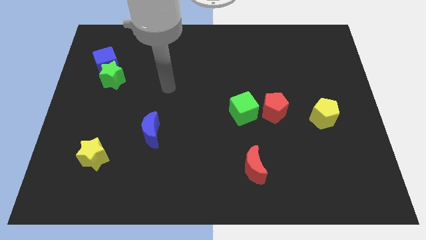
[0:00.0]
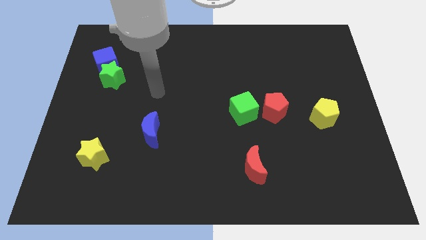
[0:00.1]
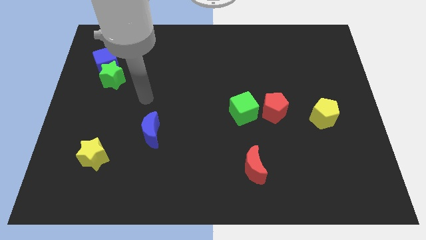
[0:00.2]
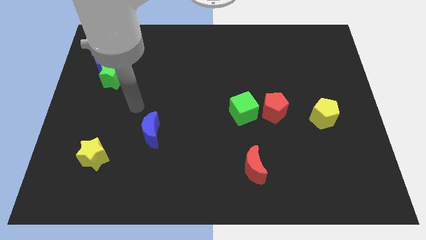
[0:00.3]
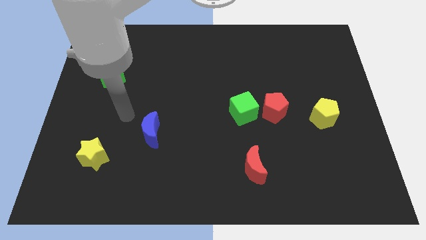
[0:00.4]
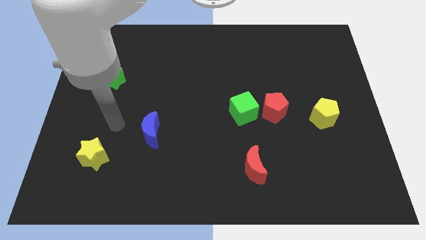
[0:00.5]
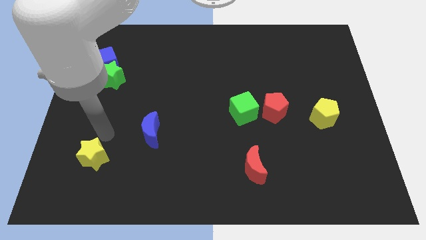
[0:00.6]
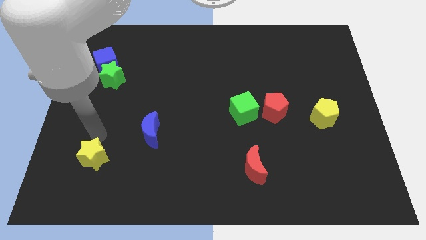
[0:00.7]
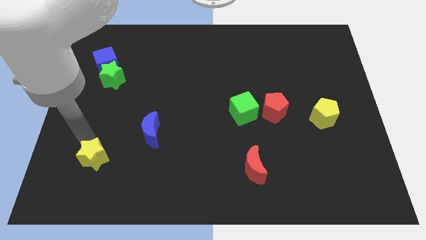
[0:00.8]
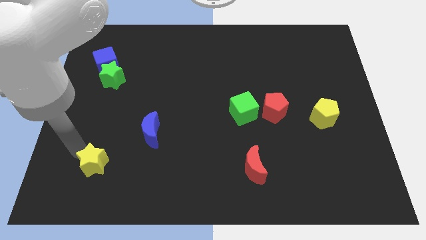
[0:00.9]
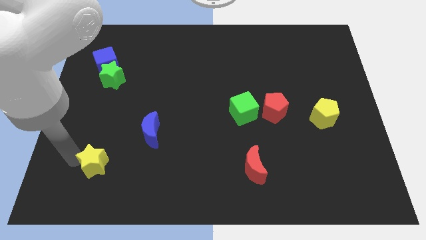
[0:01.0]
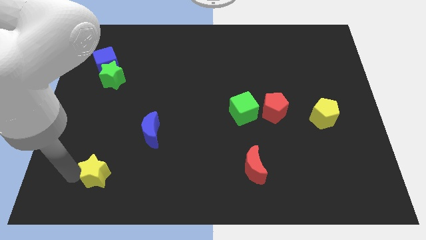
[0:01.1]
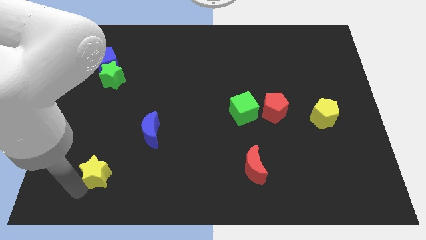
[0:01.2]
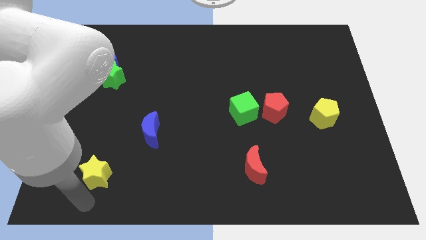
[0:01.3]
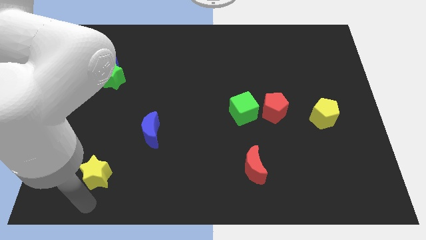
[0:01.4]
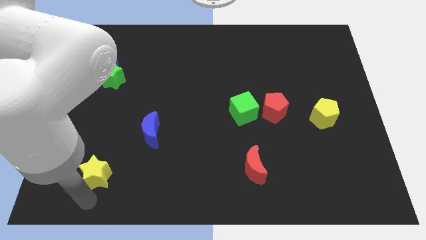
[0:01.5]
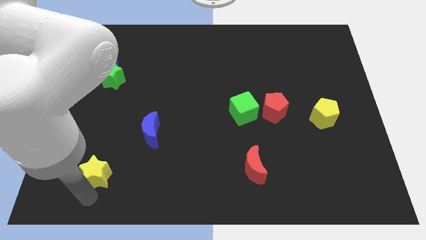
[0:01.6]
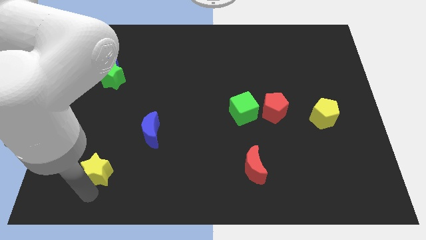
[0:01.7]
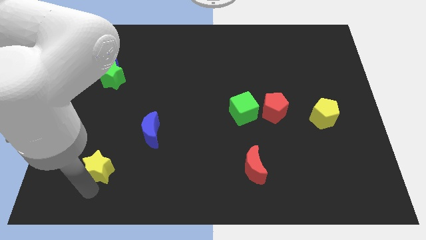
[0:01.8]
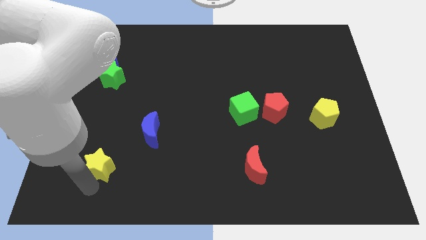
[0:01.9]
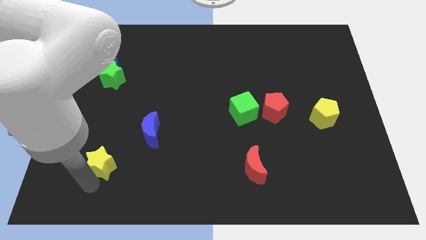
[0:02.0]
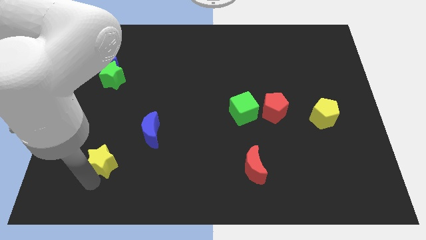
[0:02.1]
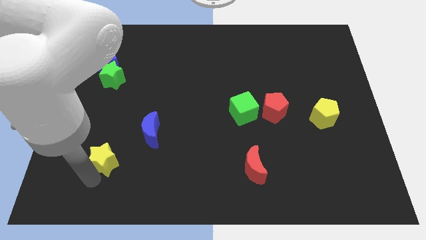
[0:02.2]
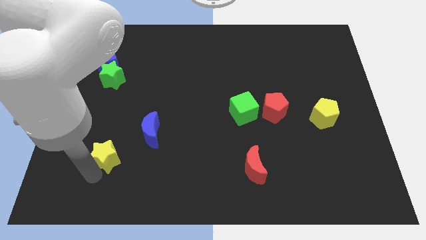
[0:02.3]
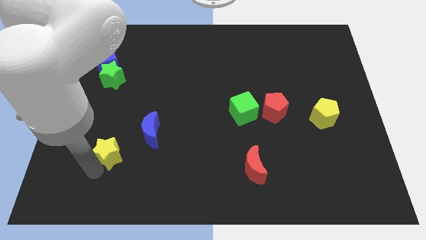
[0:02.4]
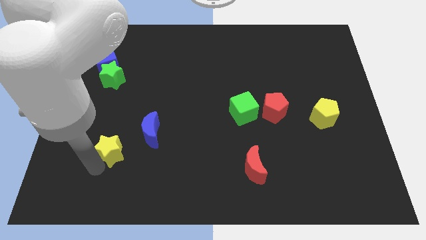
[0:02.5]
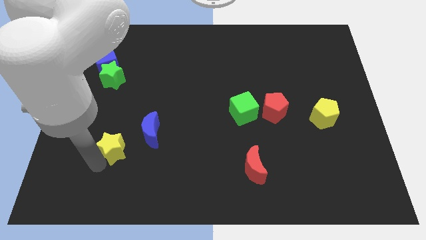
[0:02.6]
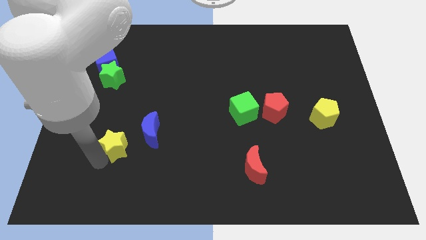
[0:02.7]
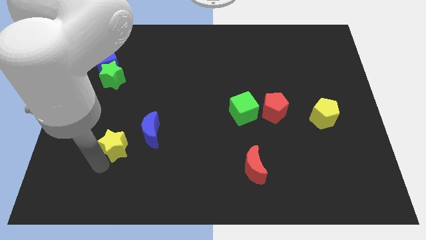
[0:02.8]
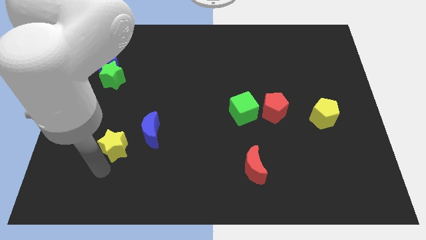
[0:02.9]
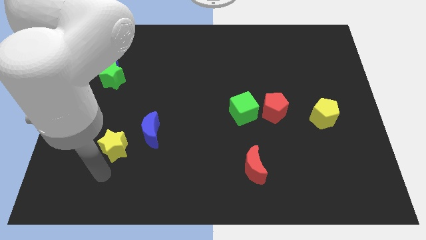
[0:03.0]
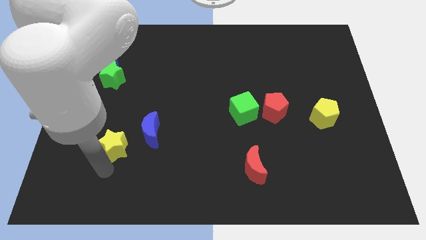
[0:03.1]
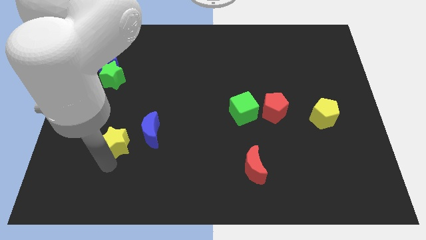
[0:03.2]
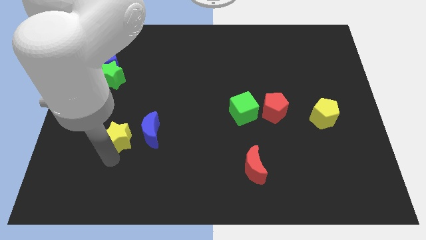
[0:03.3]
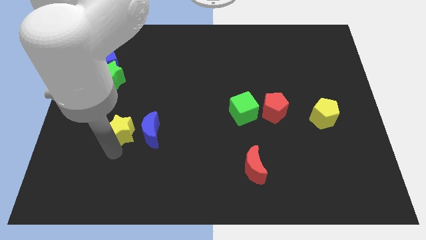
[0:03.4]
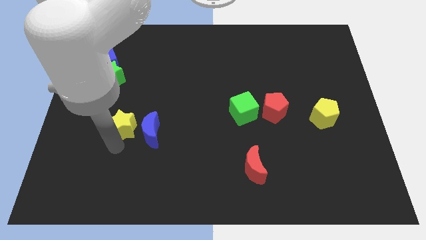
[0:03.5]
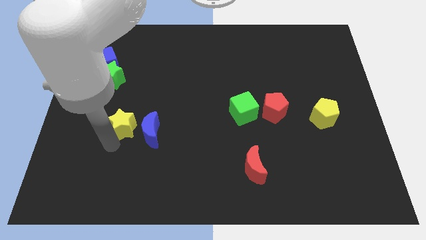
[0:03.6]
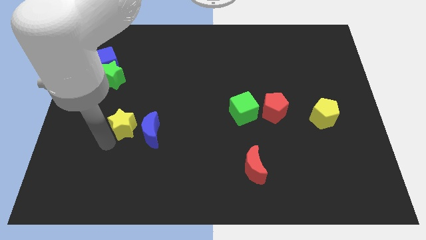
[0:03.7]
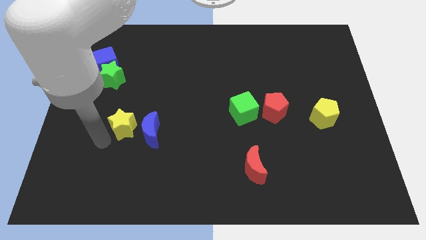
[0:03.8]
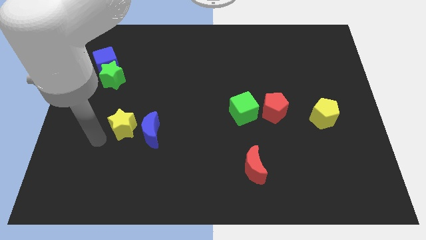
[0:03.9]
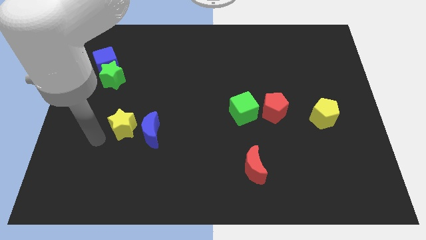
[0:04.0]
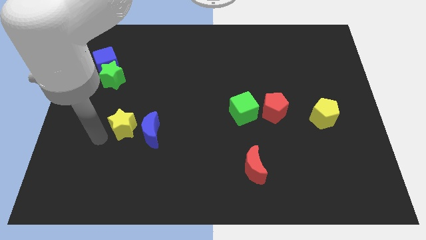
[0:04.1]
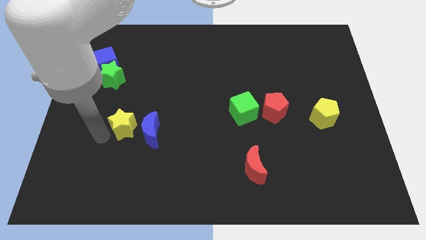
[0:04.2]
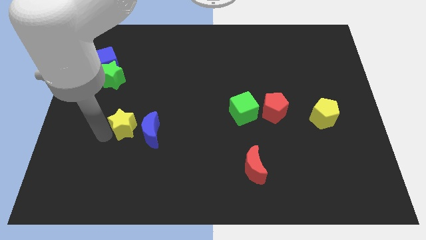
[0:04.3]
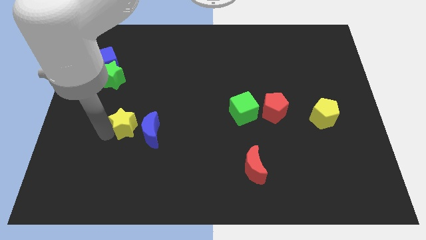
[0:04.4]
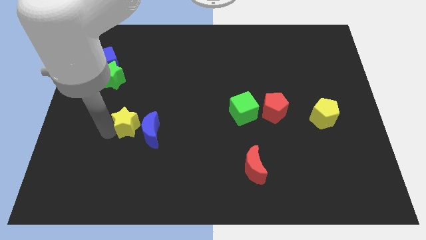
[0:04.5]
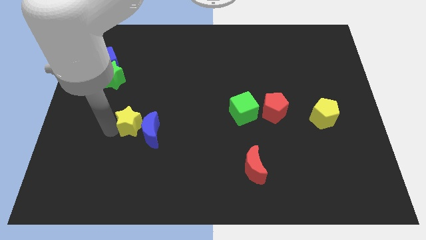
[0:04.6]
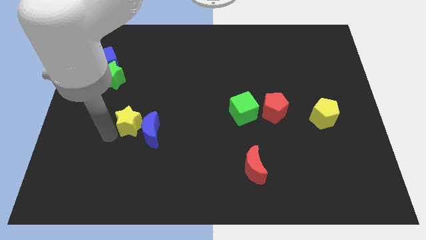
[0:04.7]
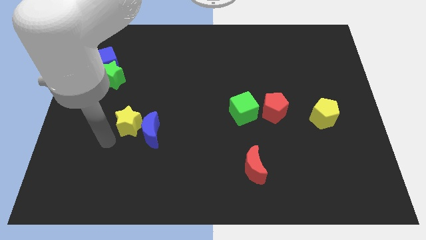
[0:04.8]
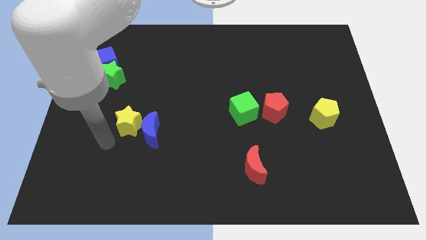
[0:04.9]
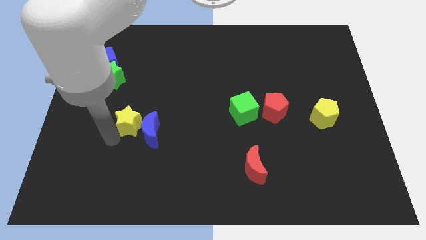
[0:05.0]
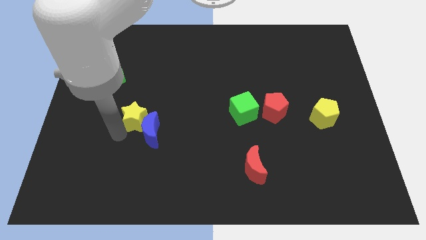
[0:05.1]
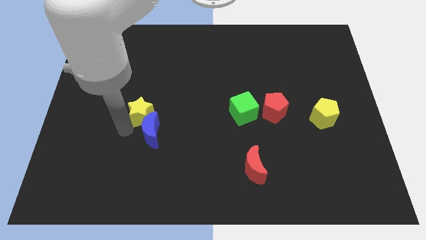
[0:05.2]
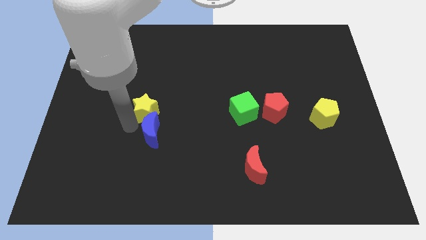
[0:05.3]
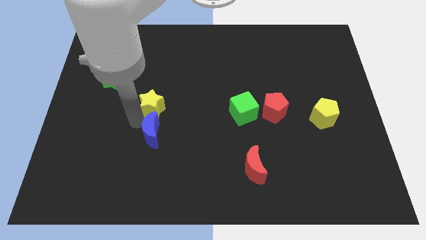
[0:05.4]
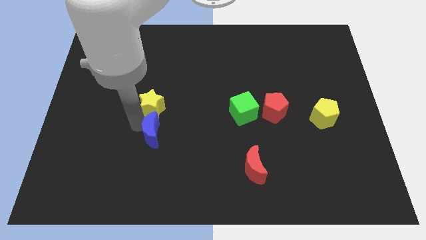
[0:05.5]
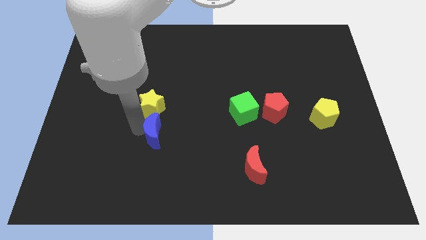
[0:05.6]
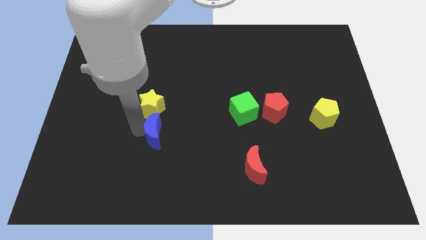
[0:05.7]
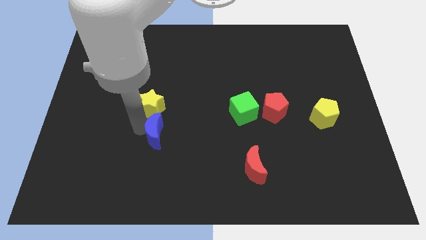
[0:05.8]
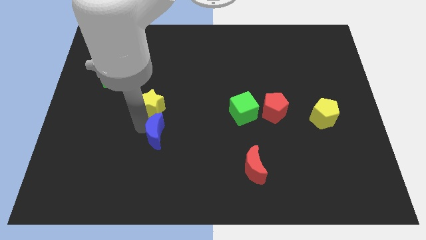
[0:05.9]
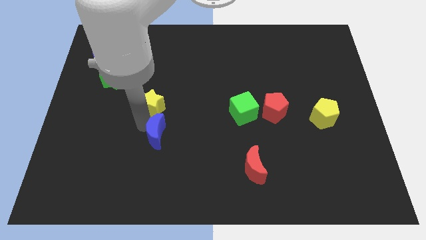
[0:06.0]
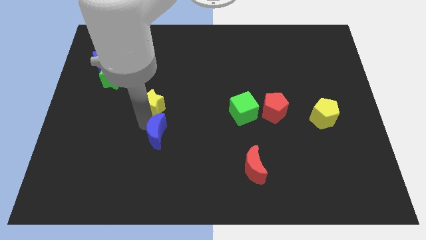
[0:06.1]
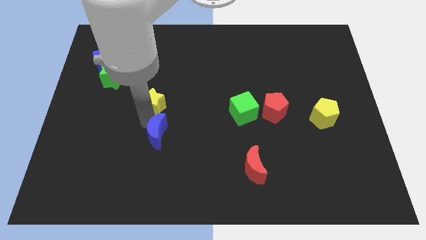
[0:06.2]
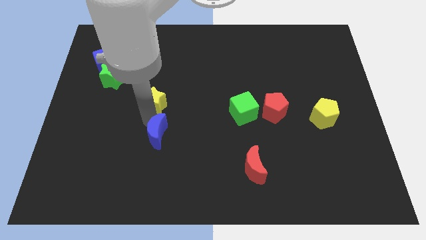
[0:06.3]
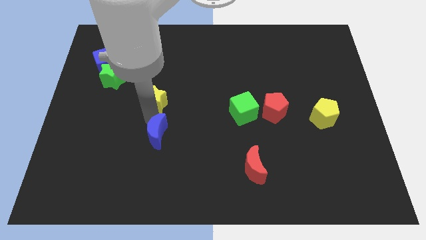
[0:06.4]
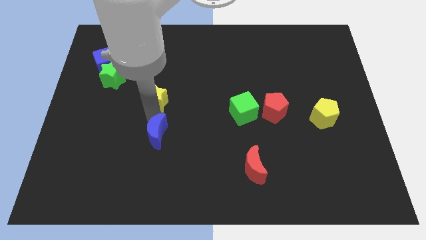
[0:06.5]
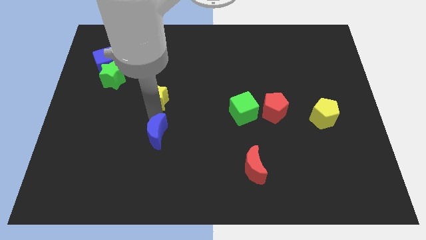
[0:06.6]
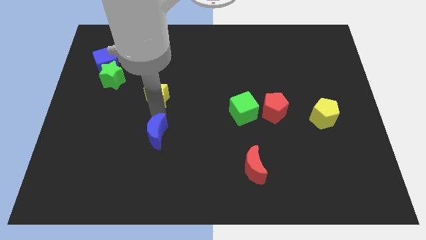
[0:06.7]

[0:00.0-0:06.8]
push the yellow star upwards and to the right

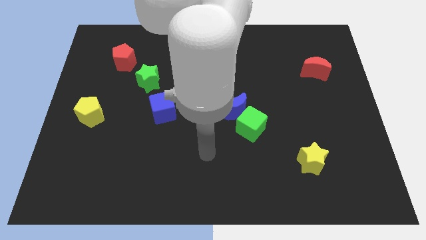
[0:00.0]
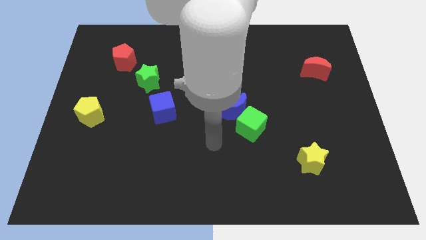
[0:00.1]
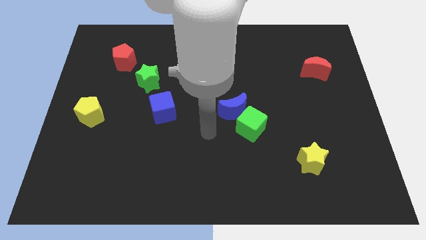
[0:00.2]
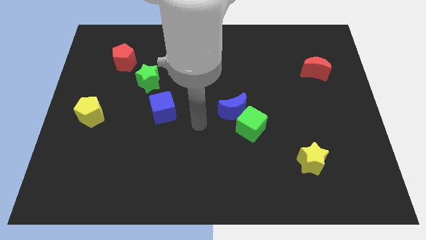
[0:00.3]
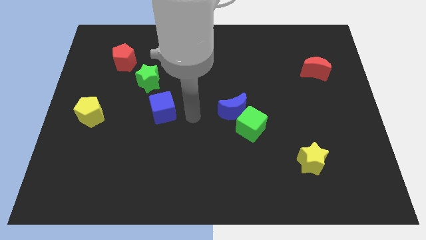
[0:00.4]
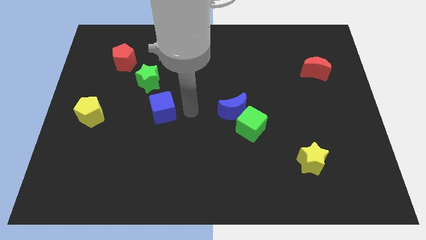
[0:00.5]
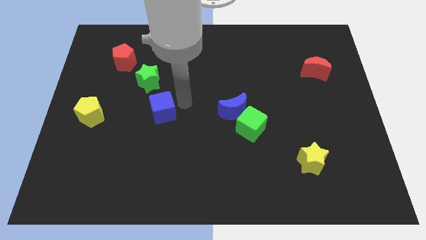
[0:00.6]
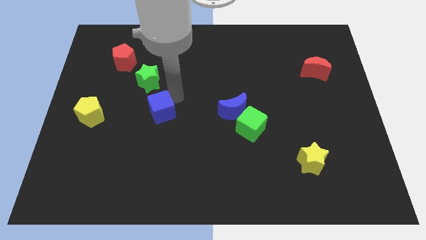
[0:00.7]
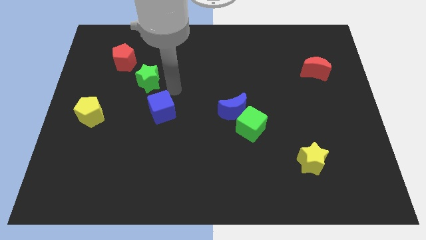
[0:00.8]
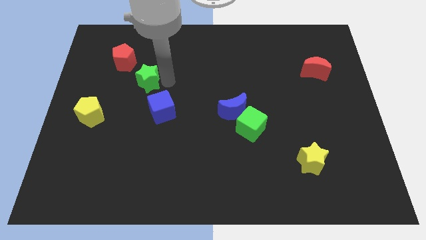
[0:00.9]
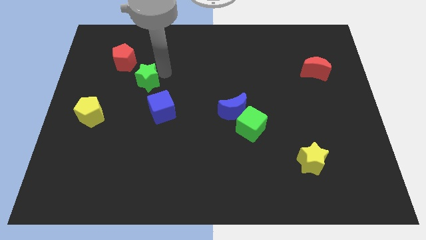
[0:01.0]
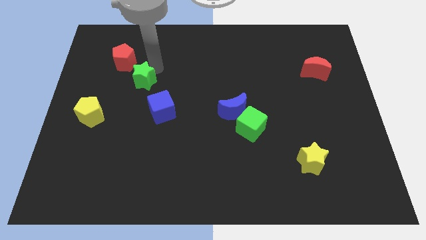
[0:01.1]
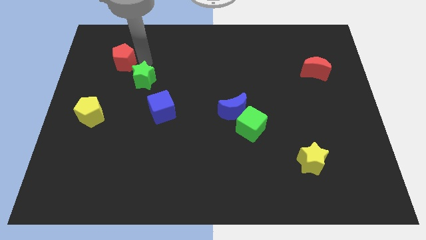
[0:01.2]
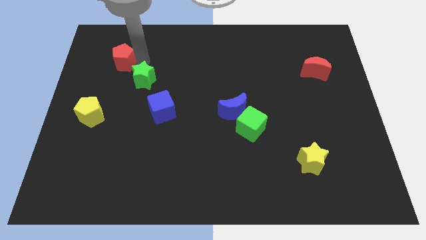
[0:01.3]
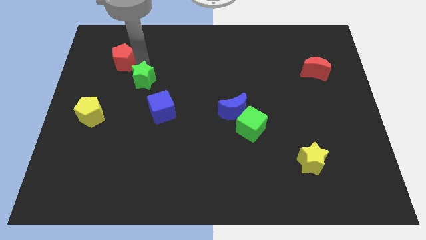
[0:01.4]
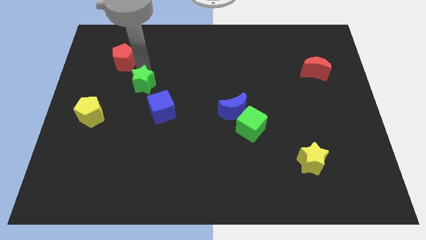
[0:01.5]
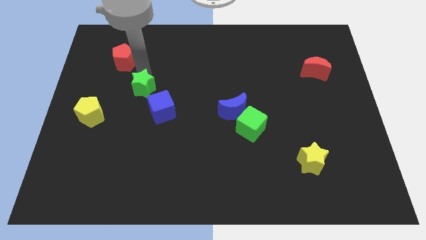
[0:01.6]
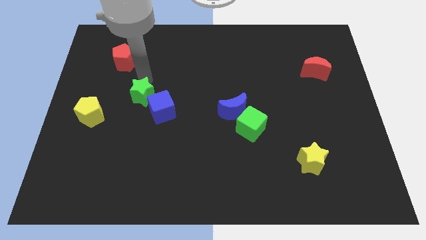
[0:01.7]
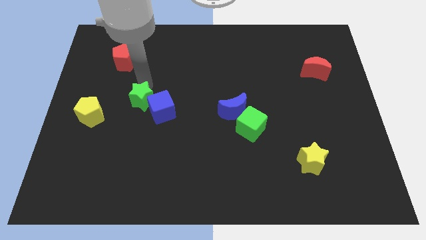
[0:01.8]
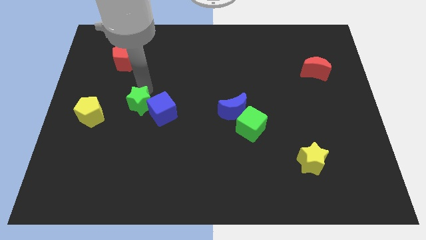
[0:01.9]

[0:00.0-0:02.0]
slightly slide the green star down
